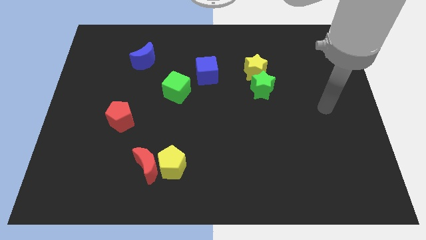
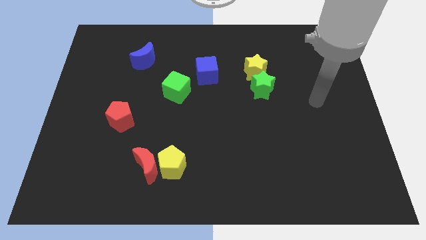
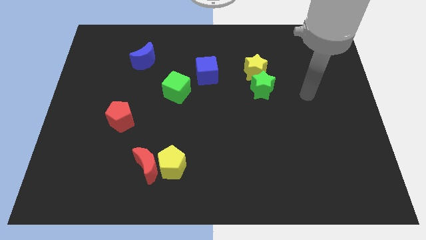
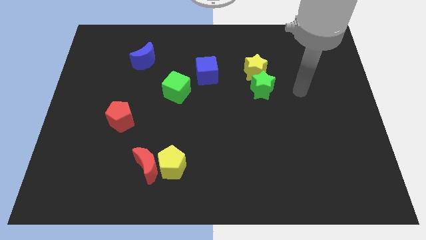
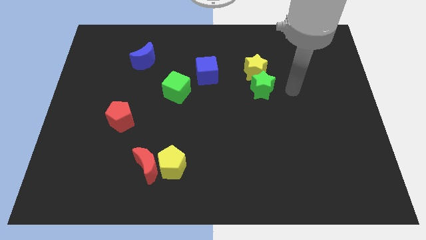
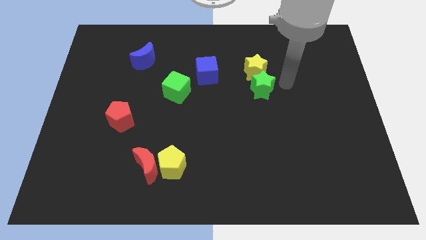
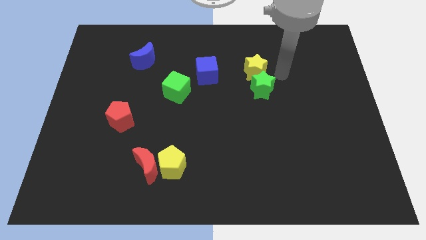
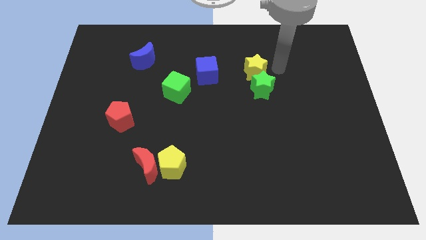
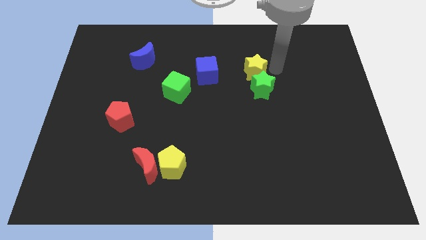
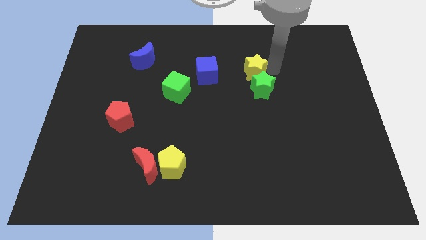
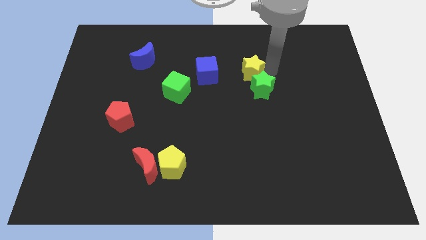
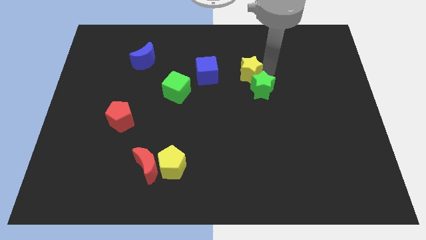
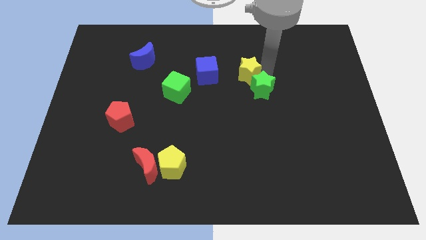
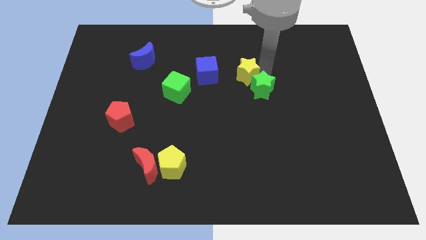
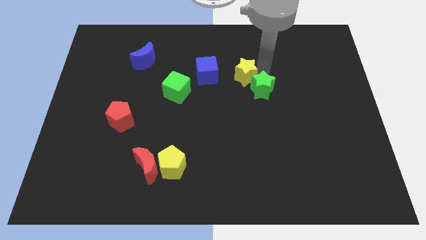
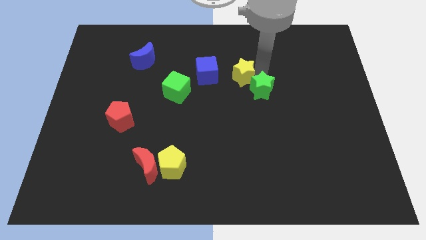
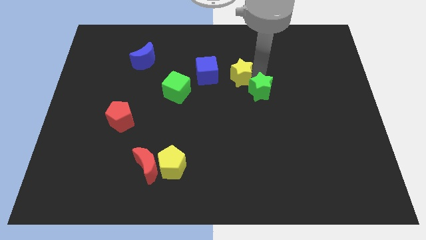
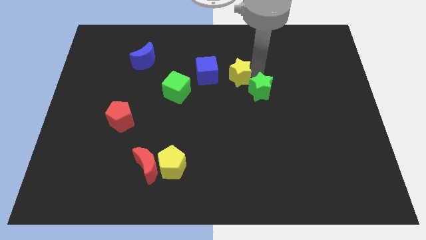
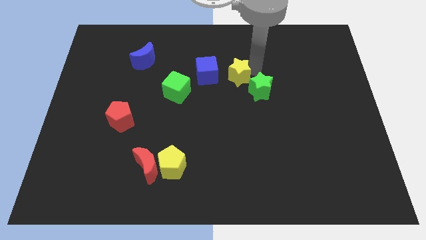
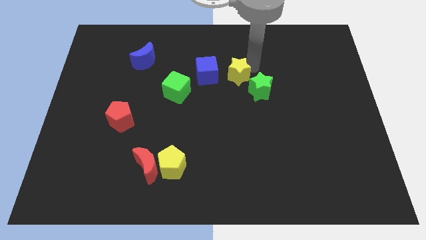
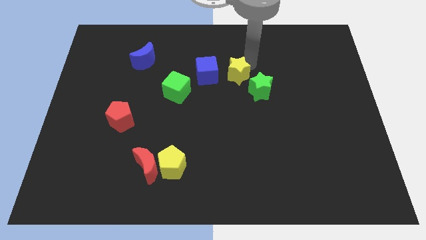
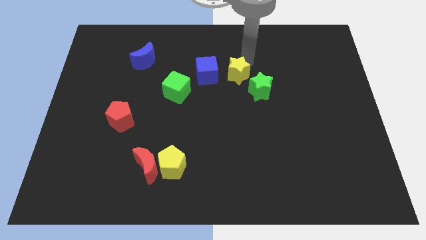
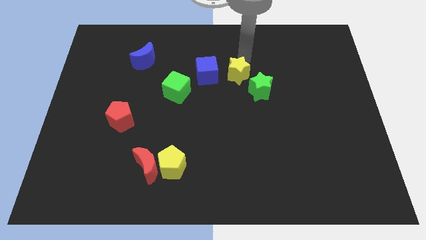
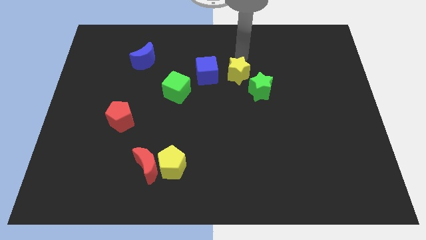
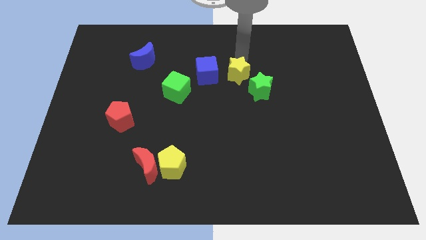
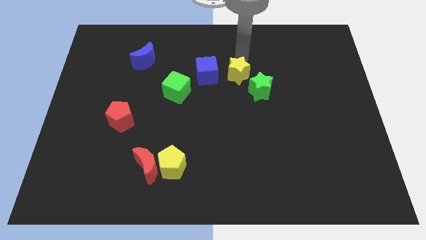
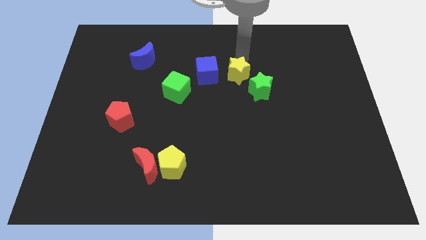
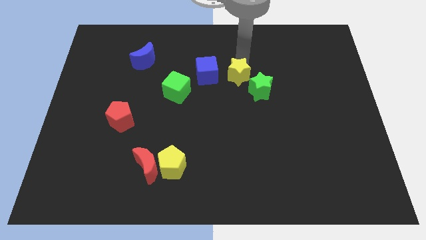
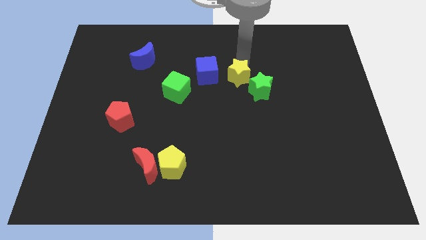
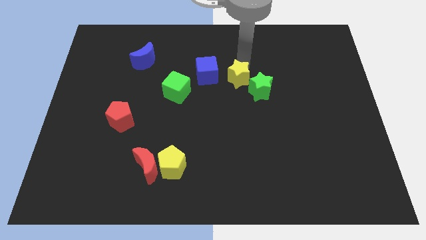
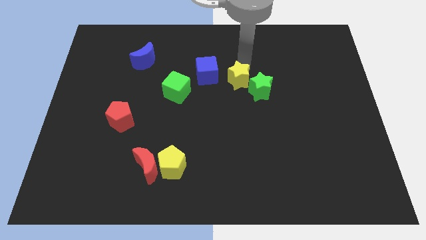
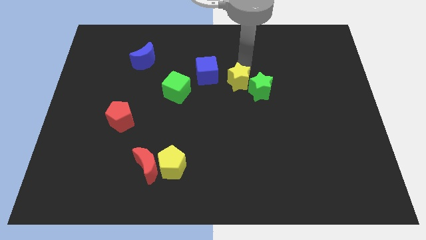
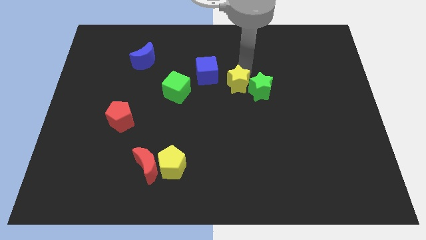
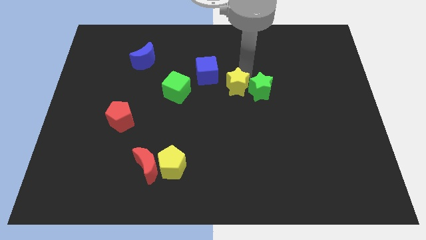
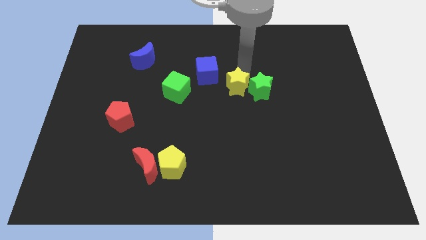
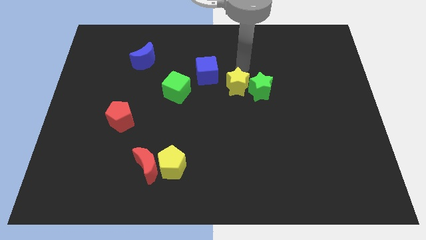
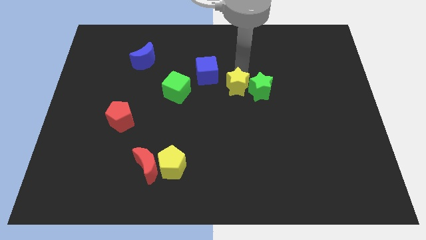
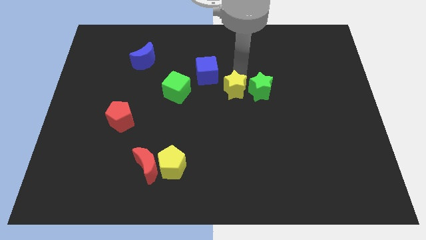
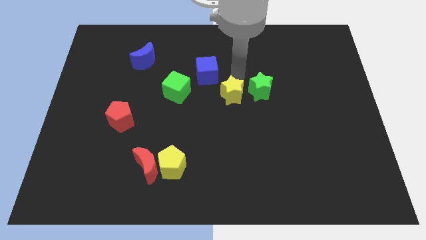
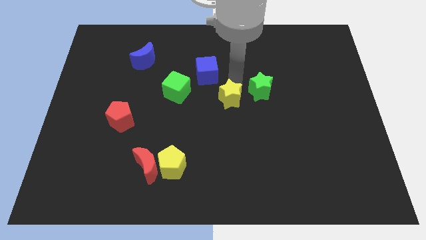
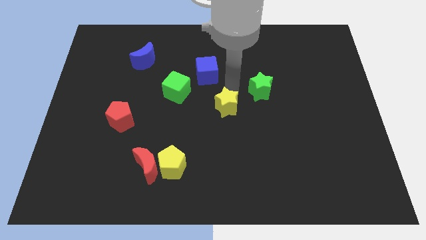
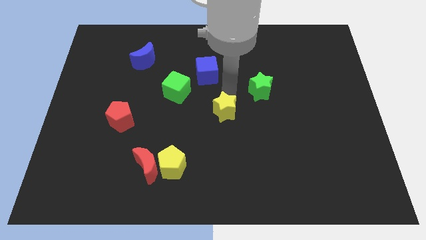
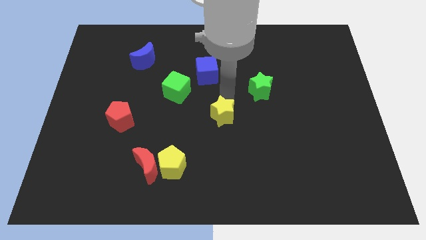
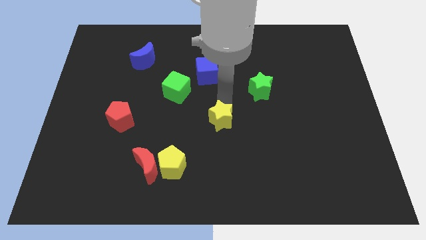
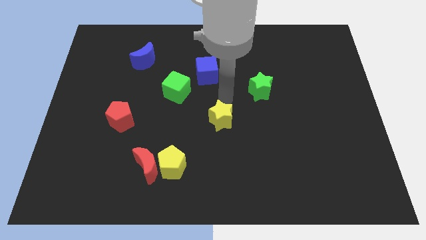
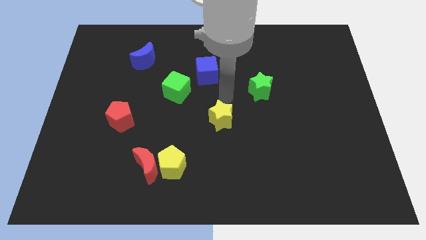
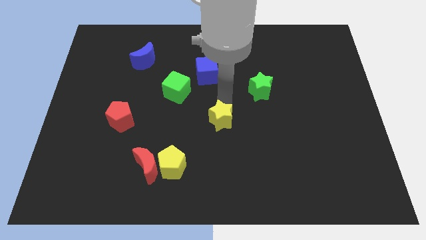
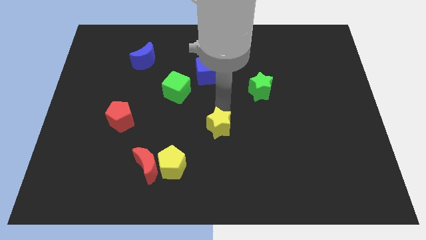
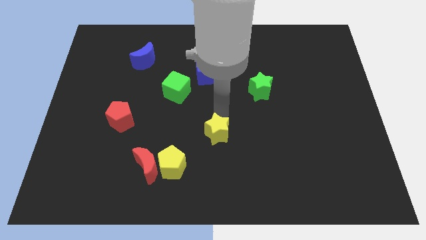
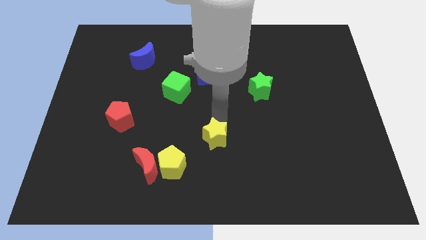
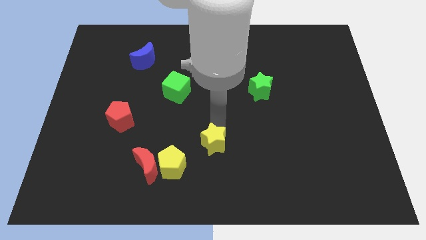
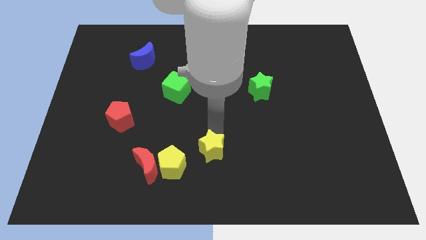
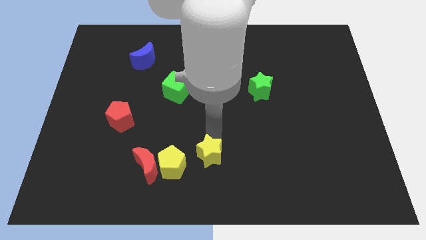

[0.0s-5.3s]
put the yellow star to the bottom

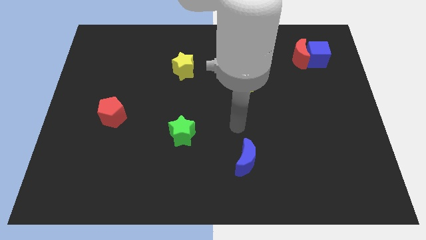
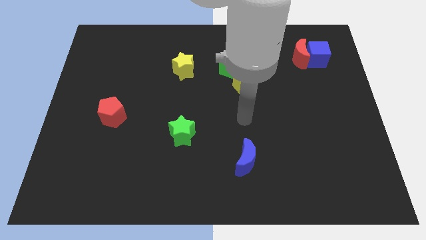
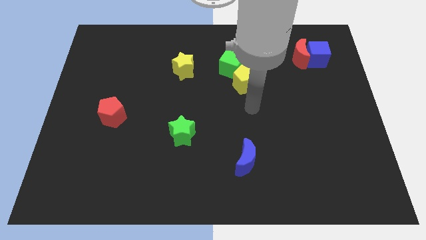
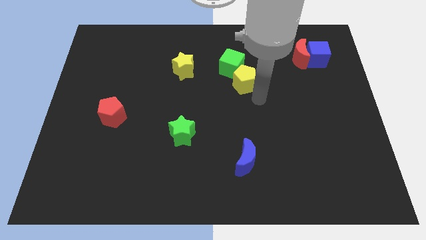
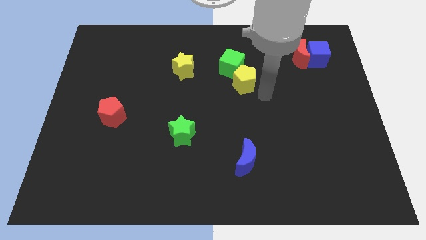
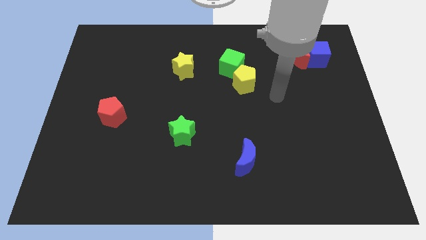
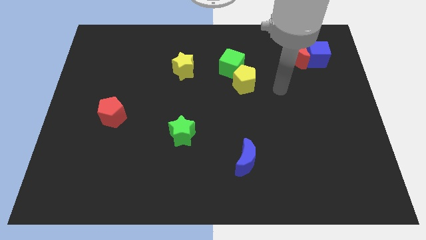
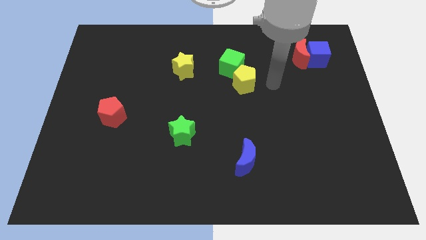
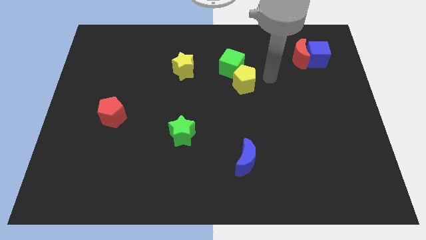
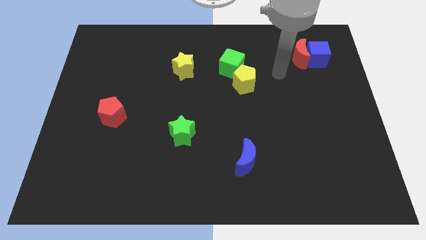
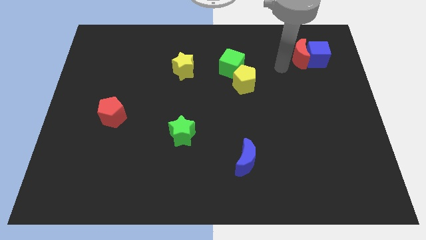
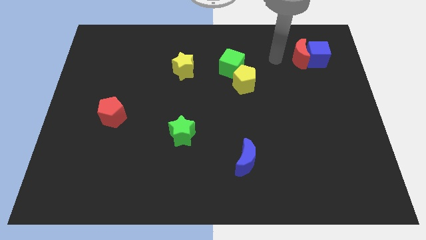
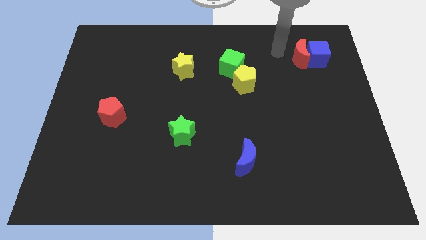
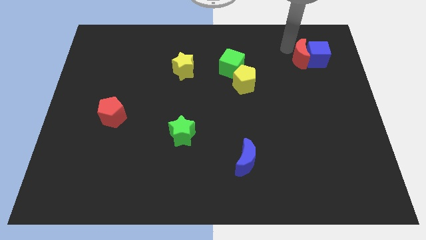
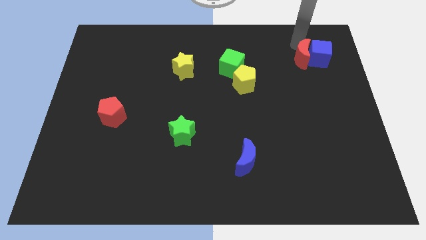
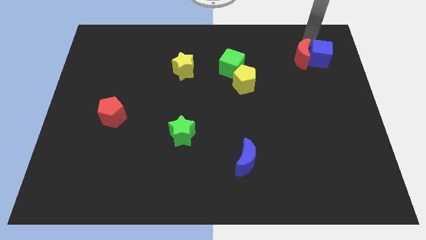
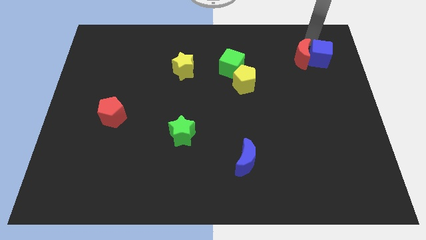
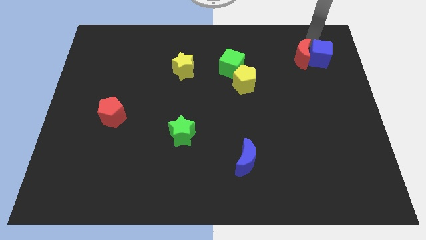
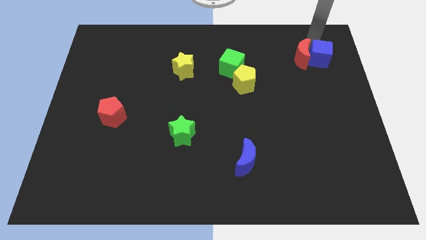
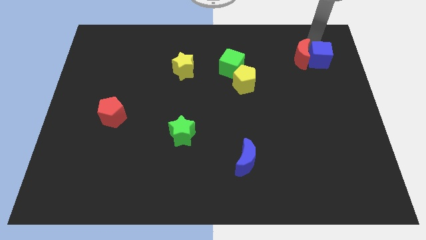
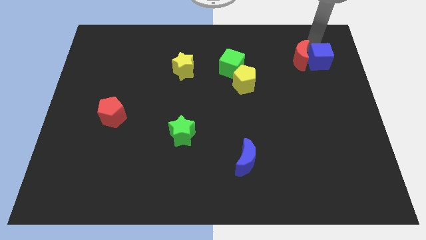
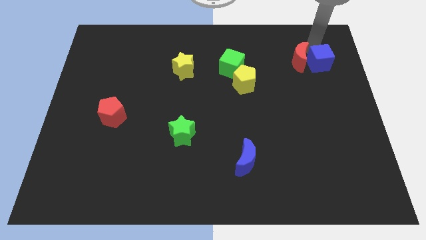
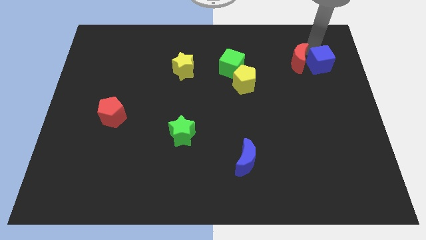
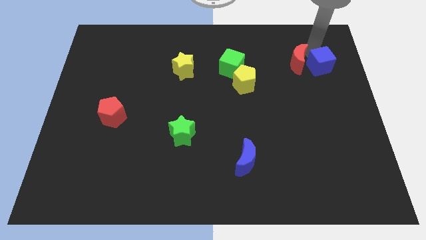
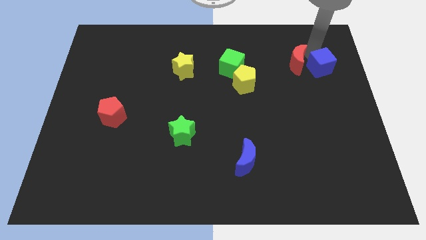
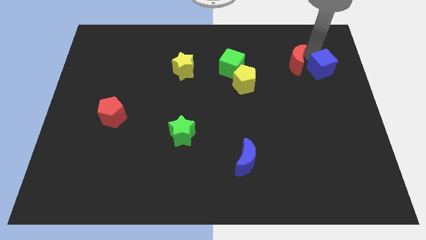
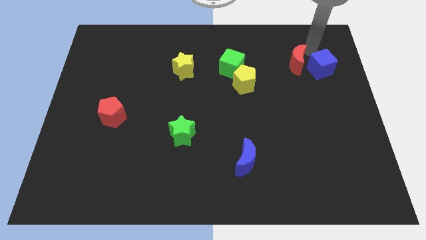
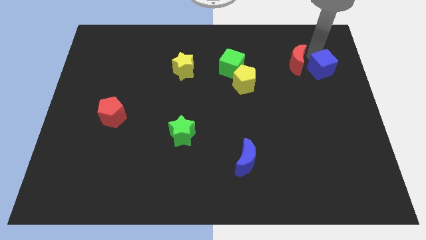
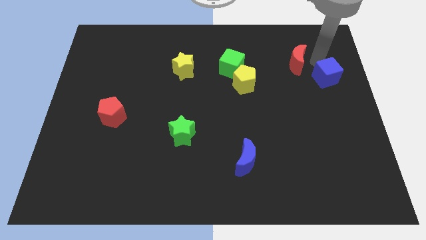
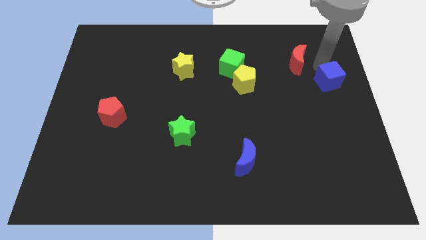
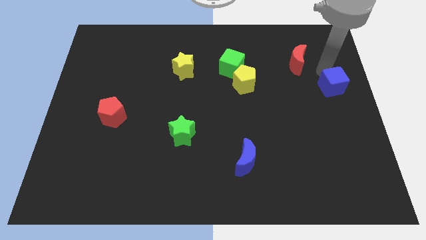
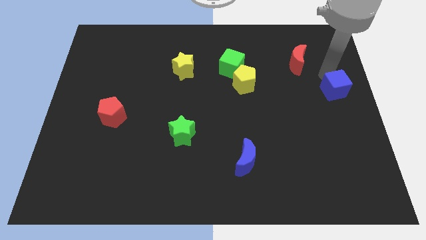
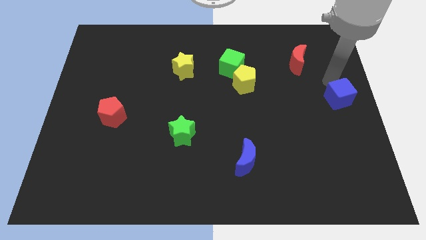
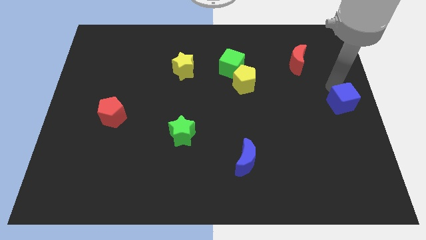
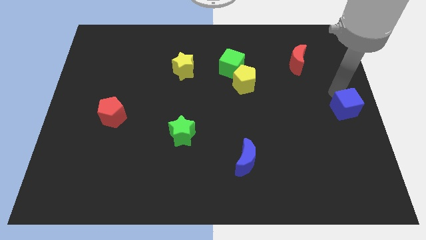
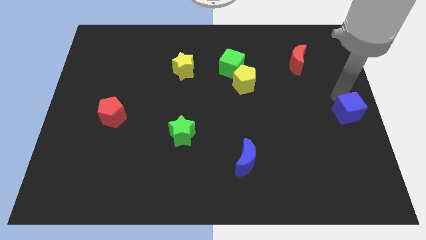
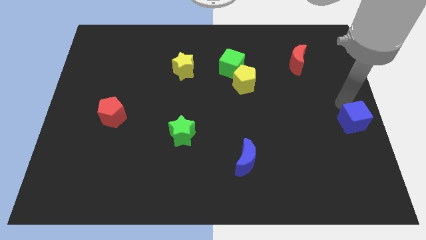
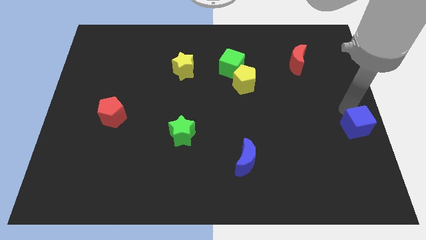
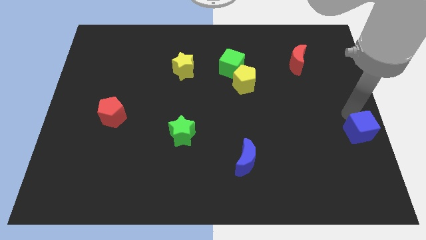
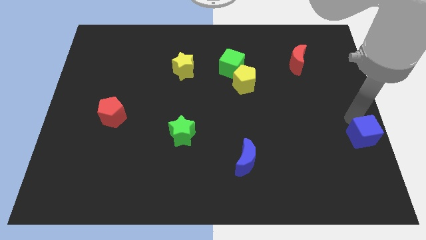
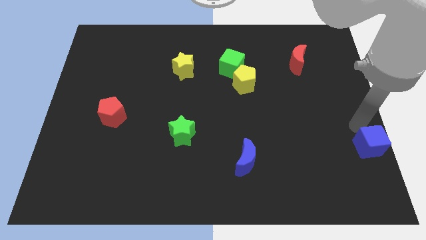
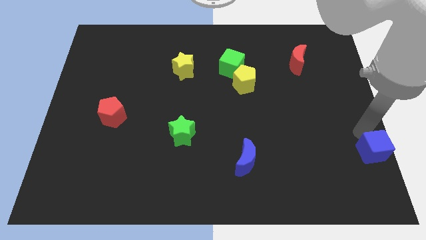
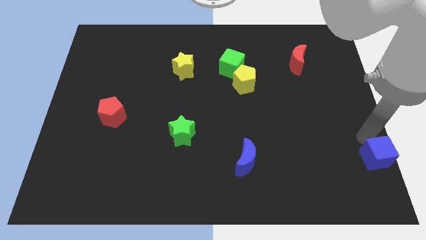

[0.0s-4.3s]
push the blue cube to the bottom right of the board
